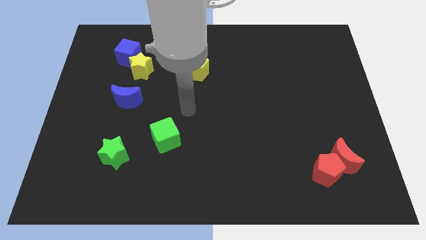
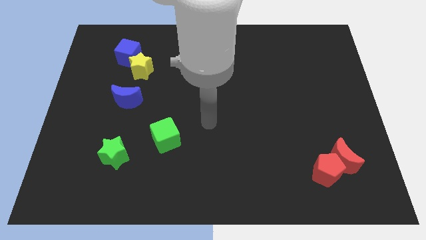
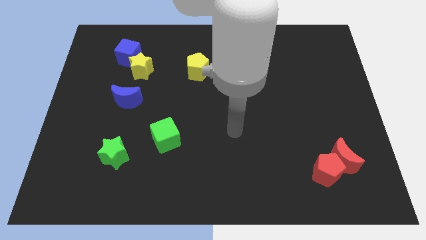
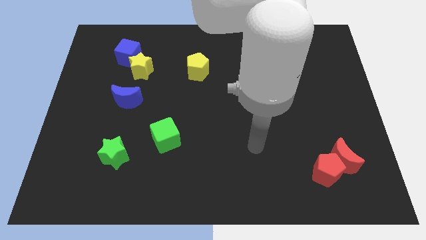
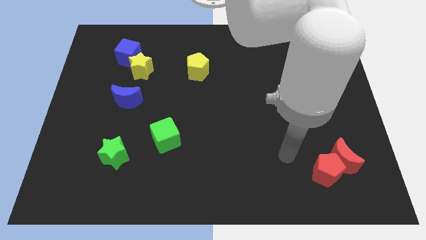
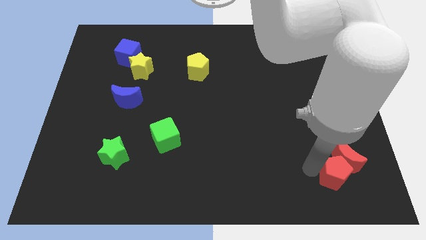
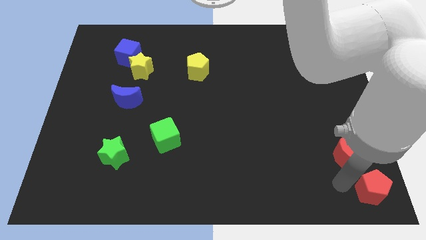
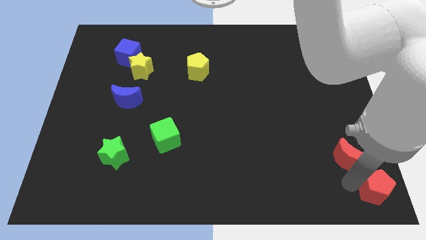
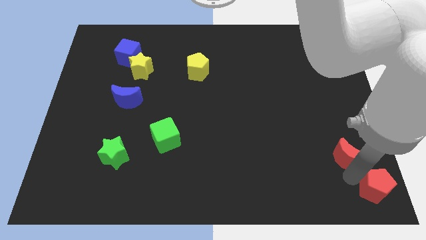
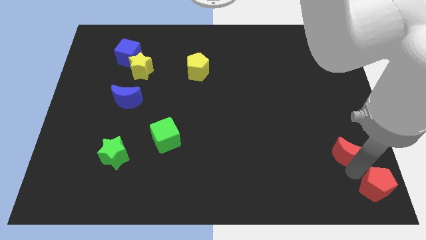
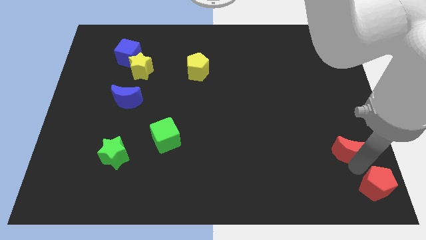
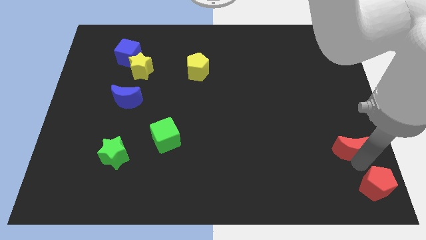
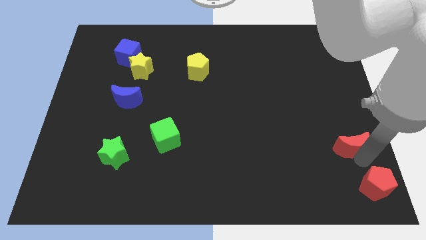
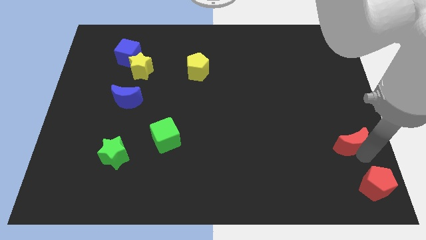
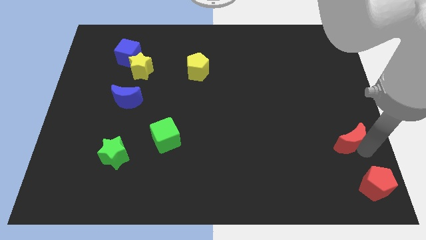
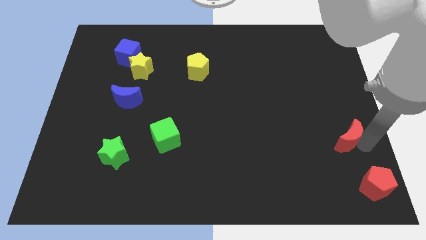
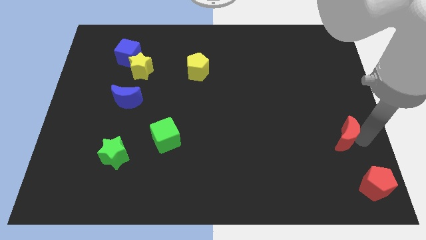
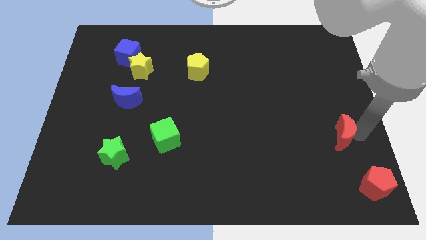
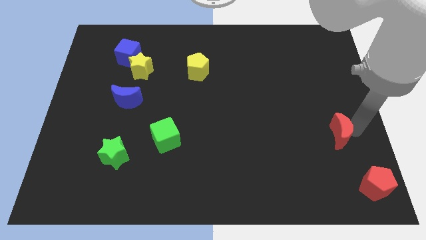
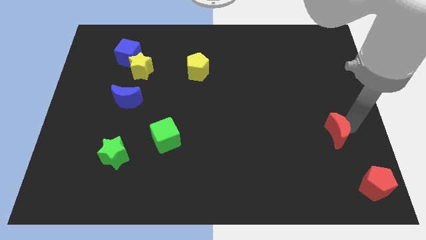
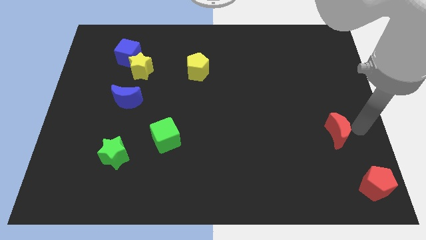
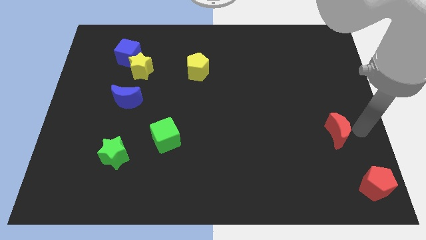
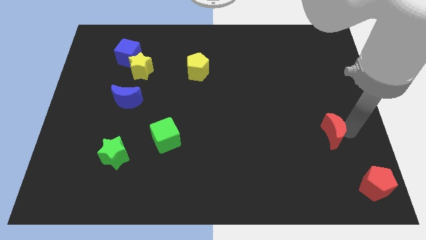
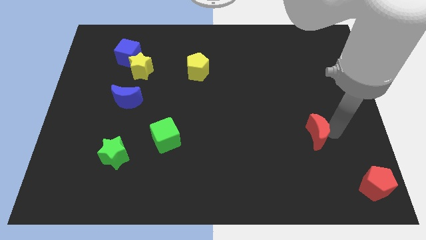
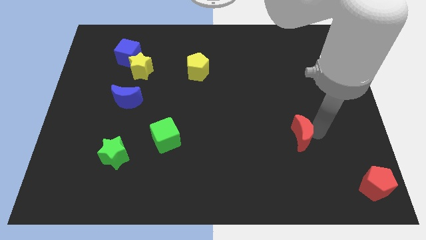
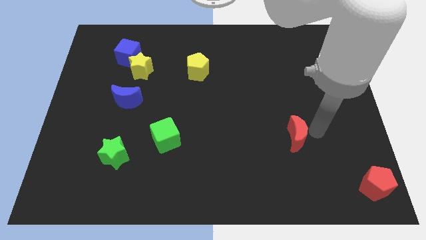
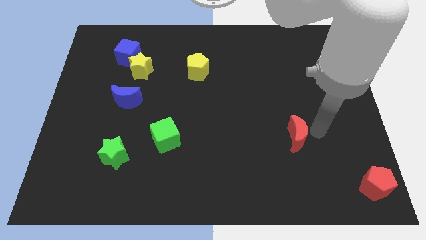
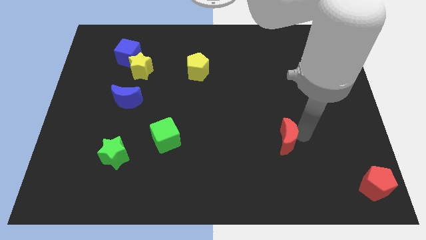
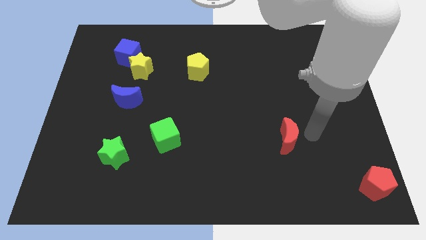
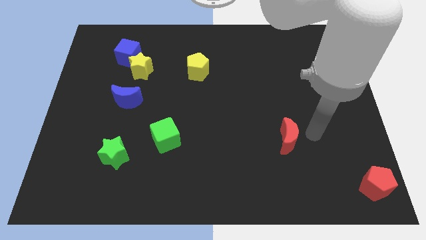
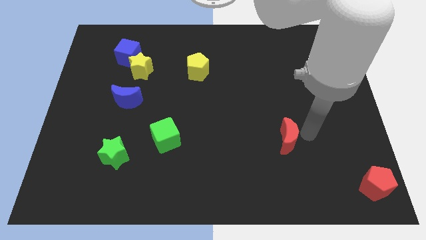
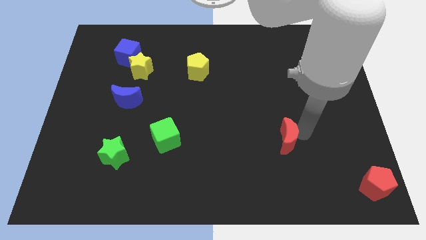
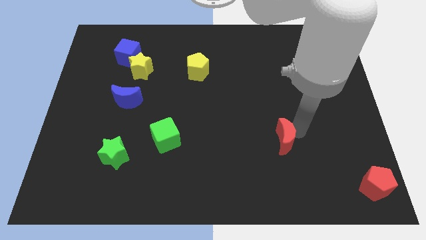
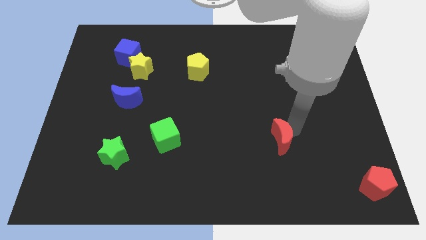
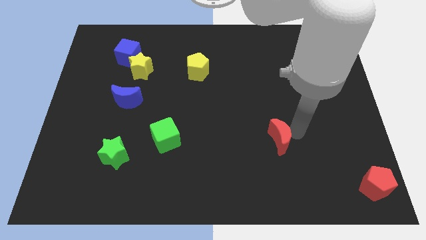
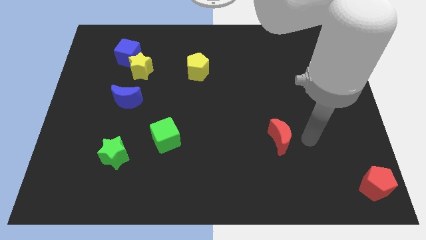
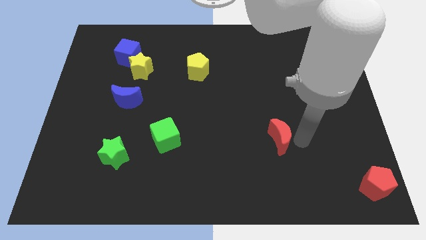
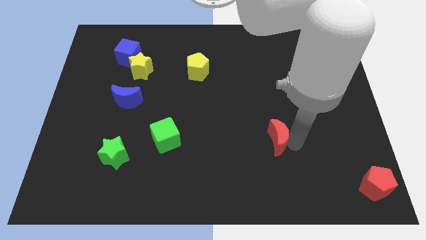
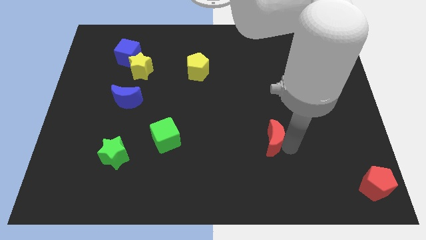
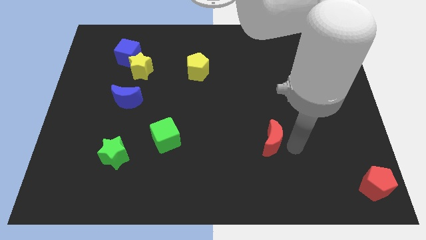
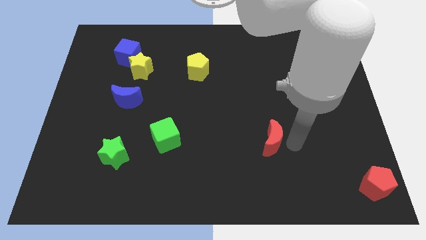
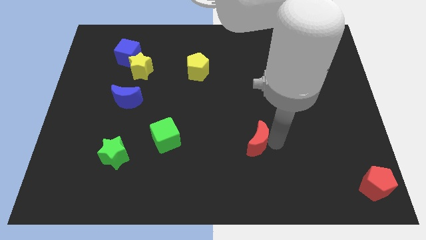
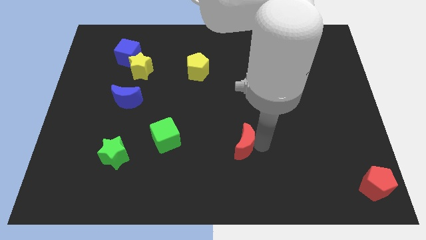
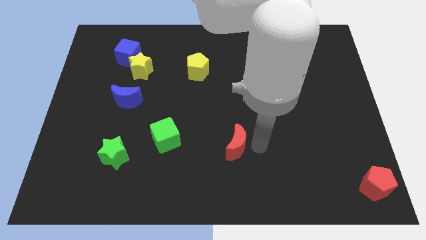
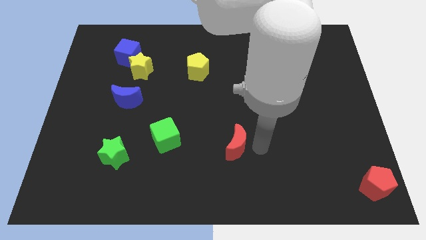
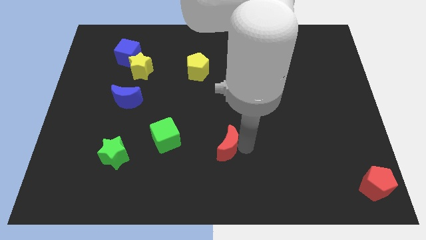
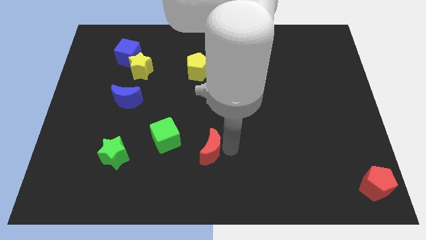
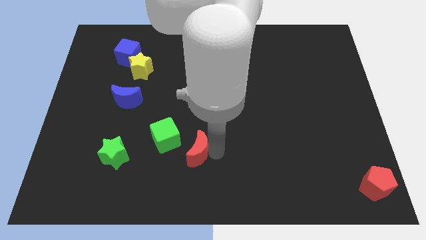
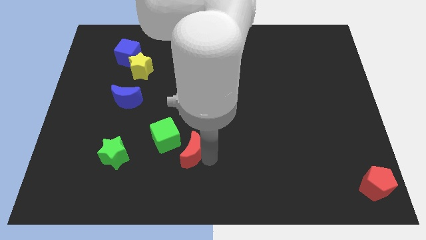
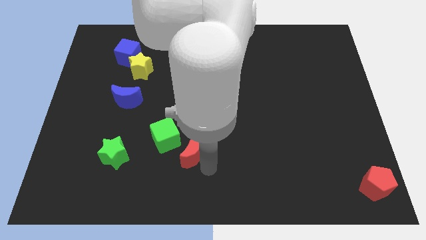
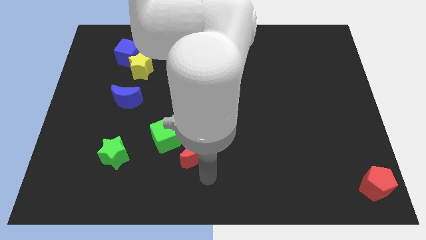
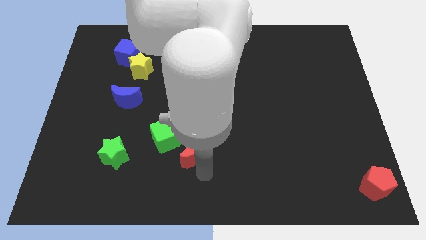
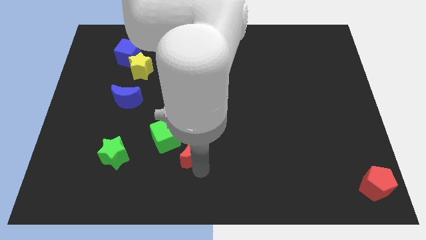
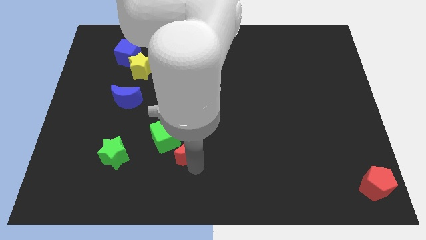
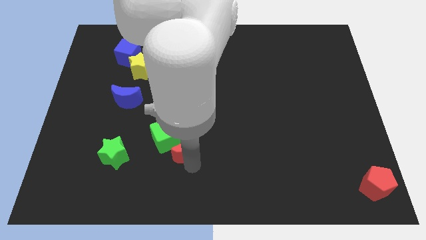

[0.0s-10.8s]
push the red moon next to the green cube

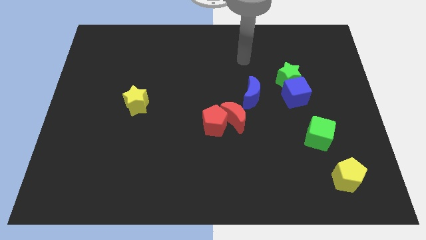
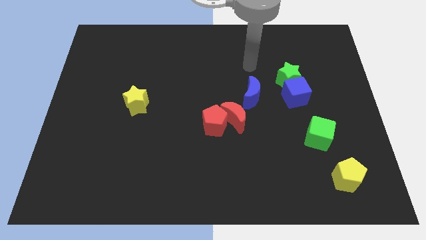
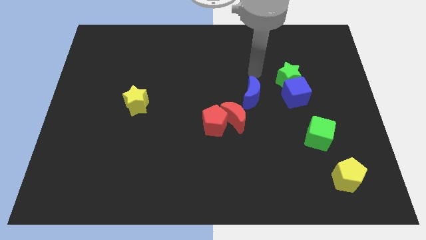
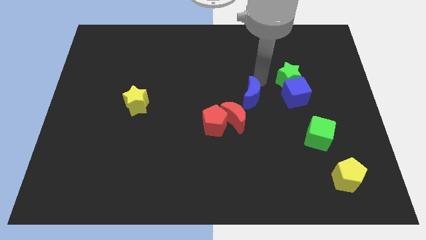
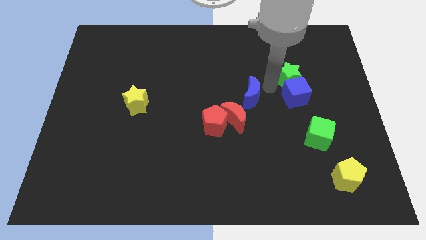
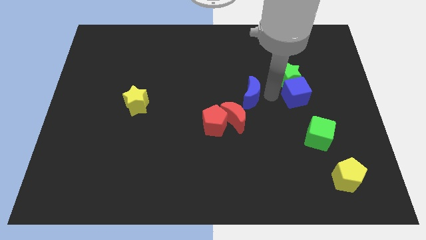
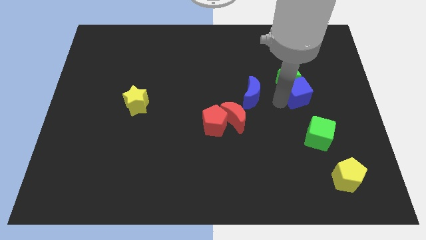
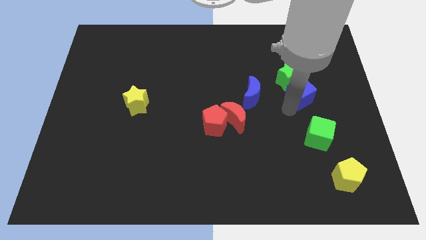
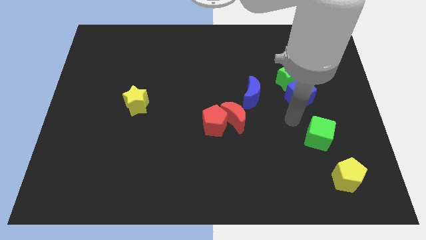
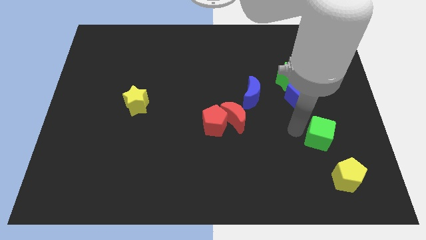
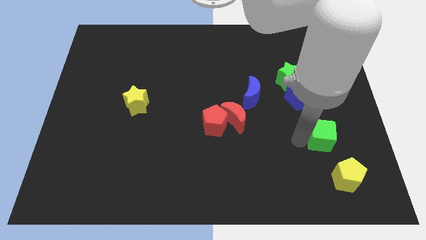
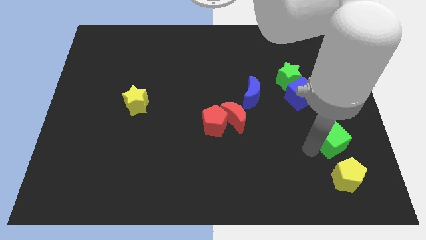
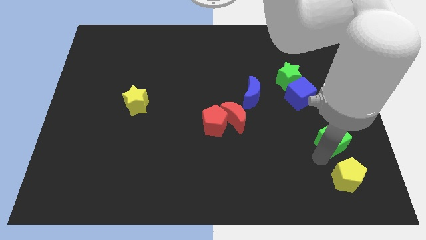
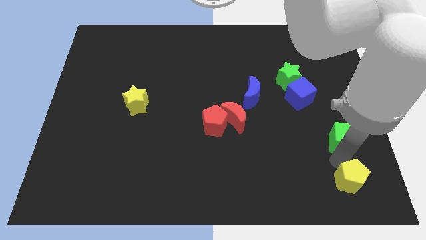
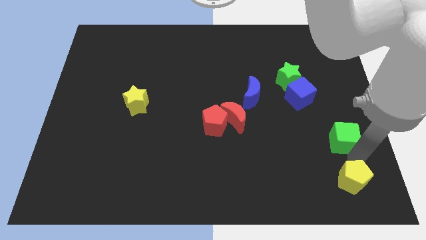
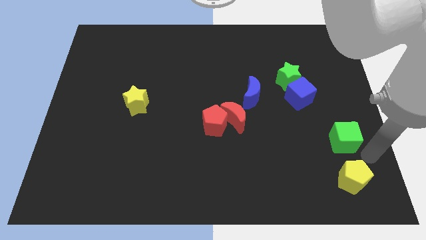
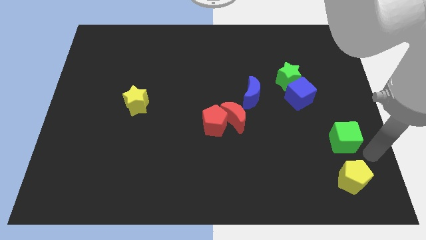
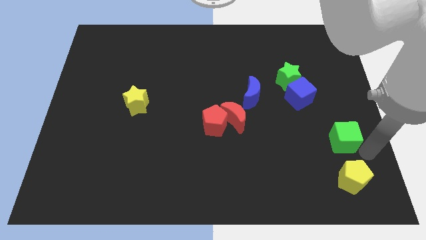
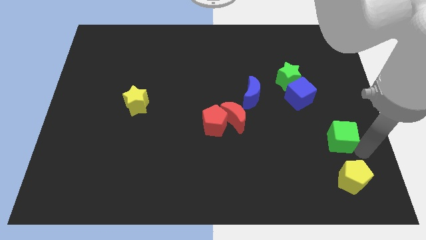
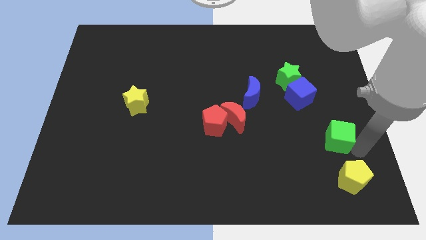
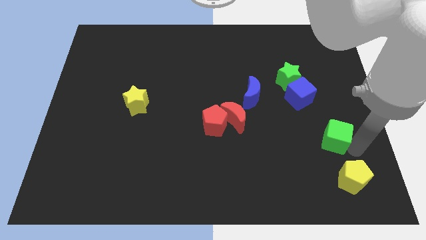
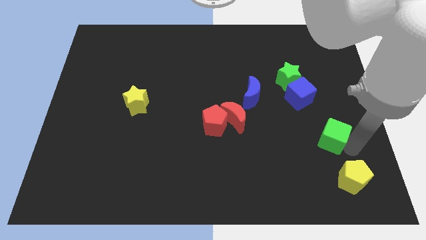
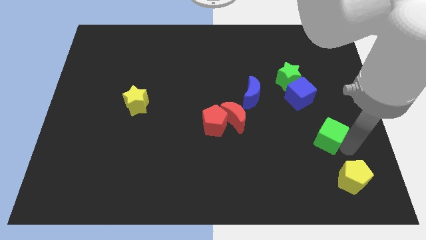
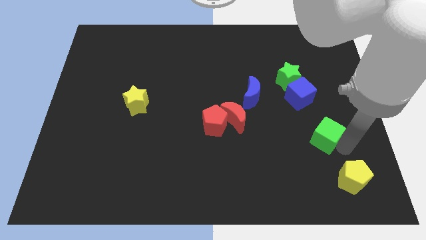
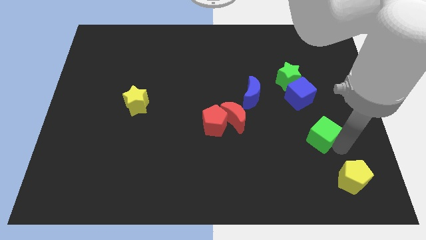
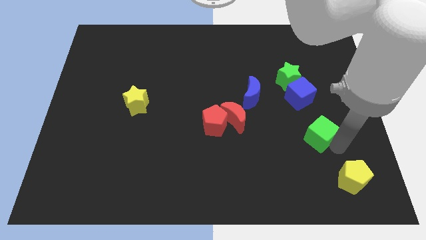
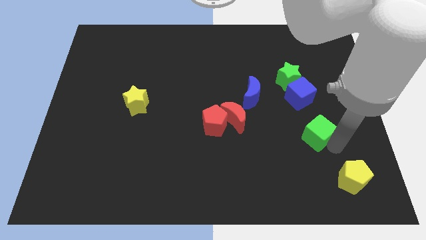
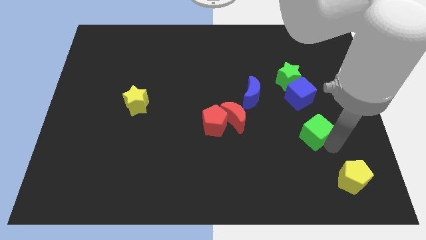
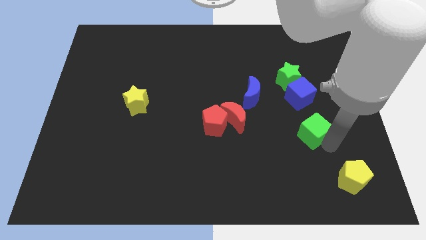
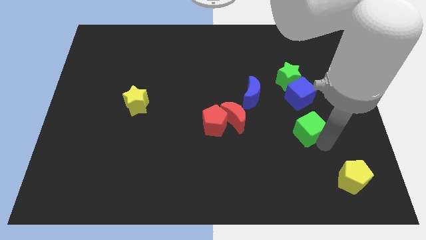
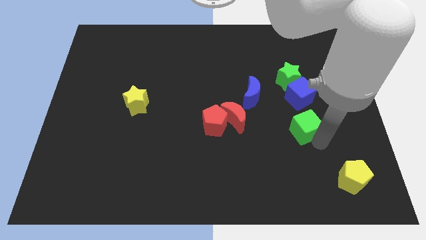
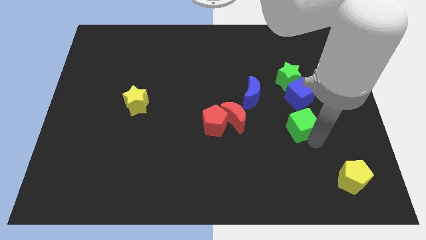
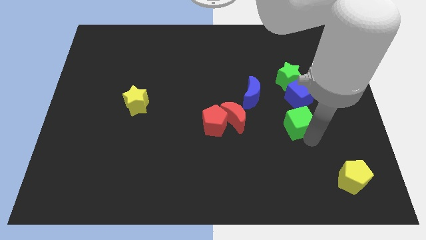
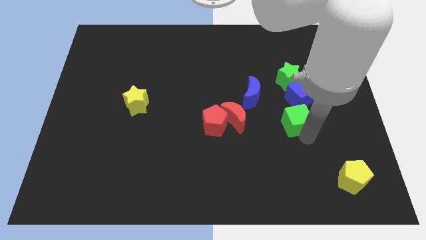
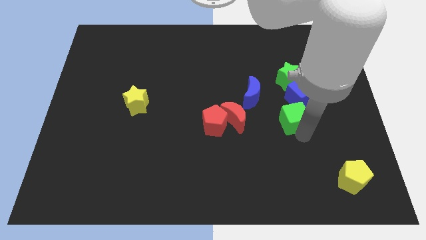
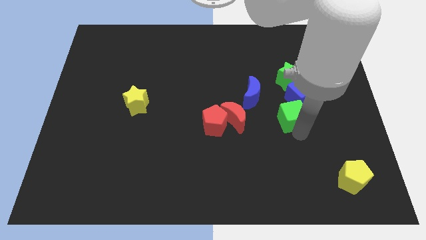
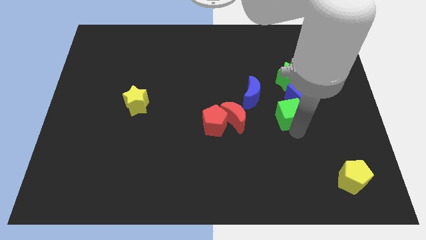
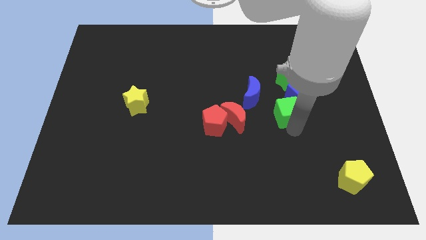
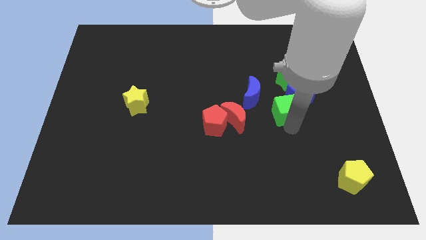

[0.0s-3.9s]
put the green cube next to the blue cube
